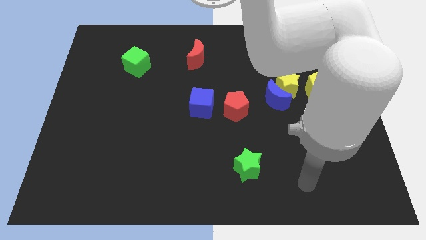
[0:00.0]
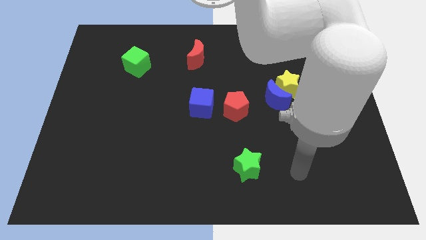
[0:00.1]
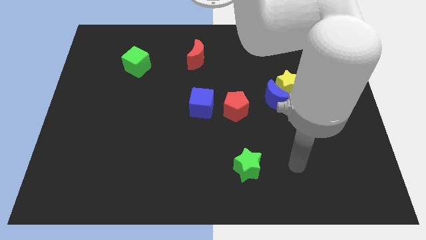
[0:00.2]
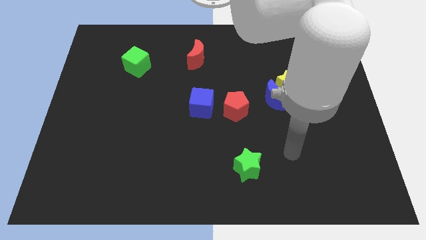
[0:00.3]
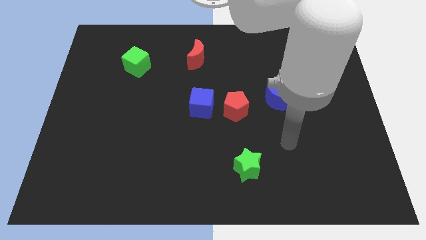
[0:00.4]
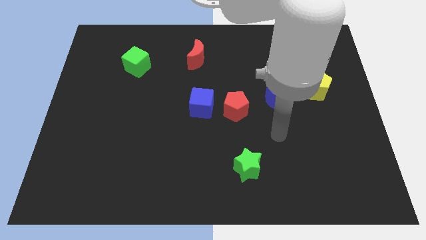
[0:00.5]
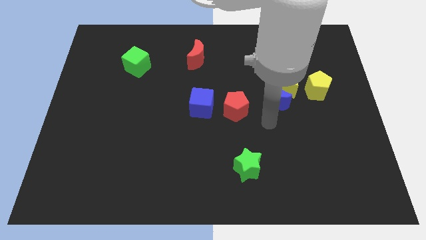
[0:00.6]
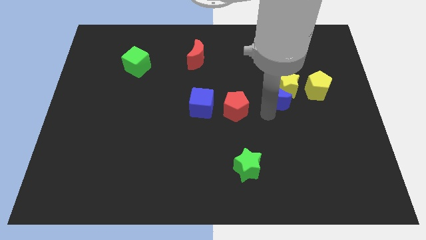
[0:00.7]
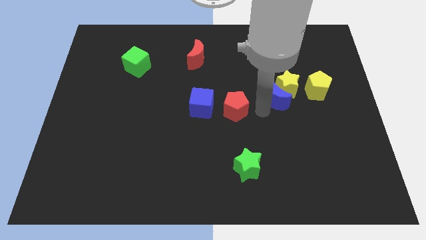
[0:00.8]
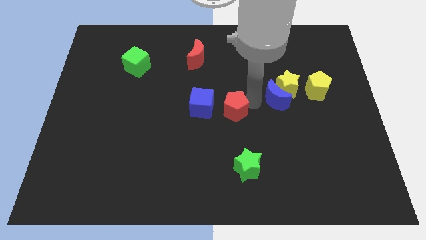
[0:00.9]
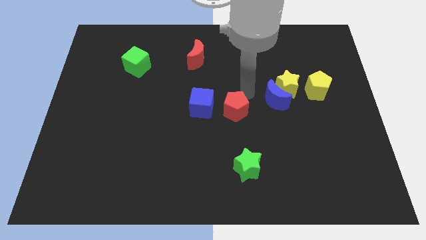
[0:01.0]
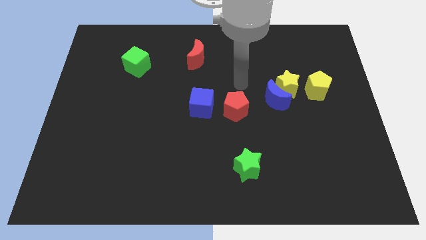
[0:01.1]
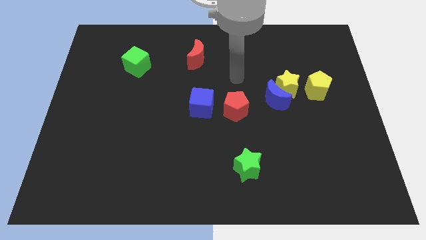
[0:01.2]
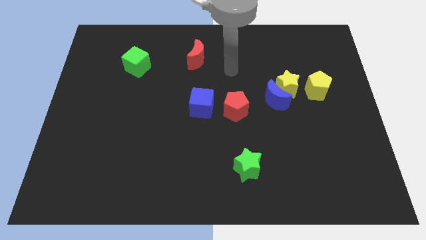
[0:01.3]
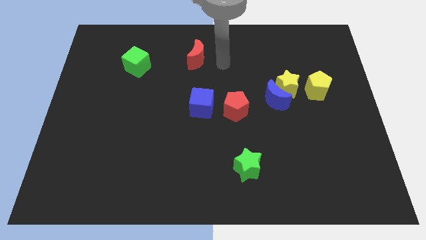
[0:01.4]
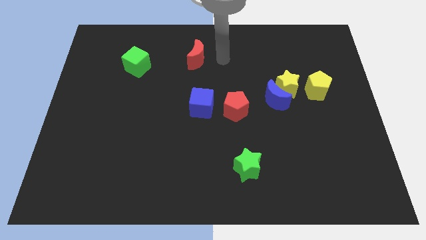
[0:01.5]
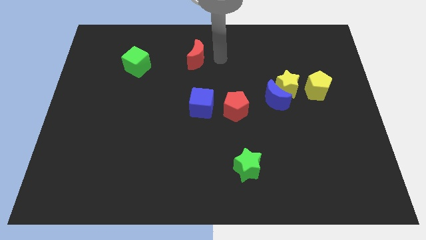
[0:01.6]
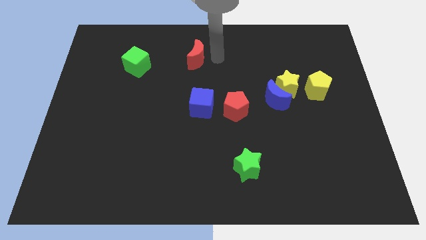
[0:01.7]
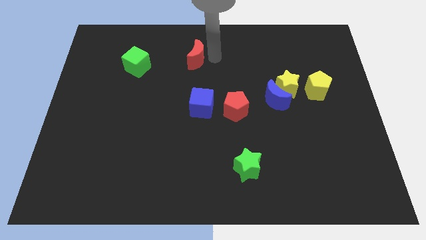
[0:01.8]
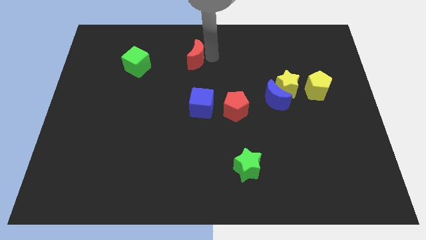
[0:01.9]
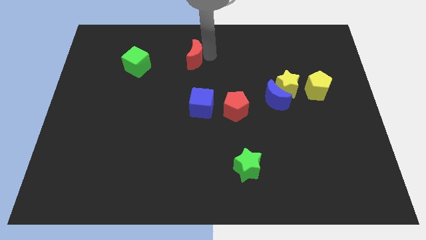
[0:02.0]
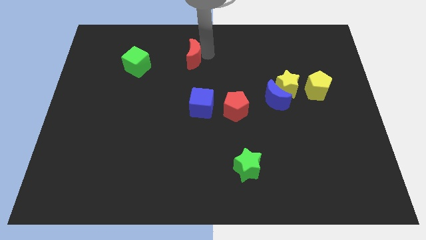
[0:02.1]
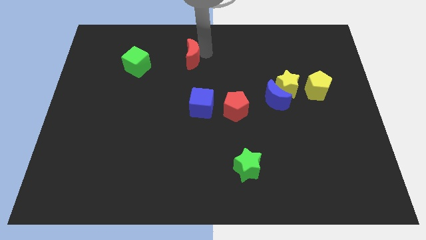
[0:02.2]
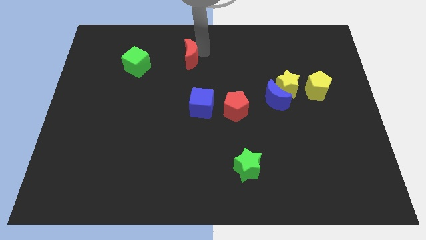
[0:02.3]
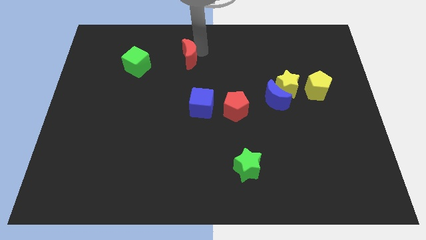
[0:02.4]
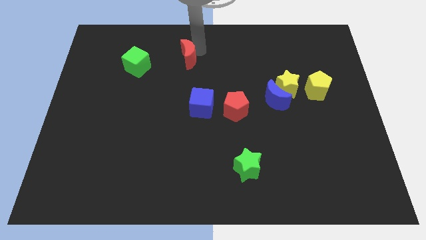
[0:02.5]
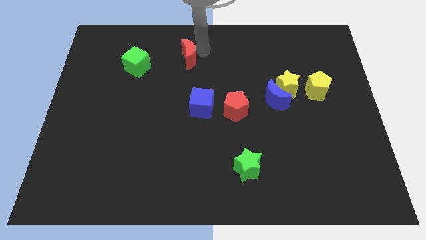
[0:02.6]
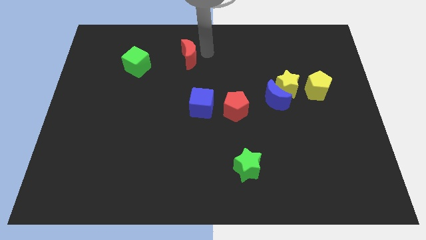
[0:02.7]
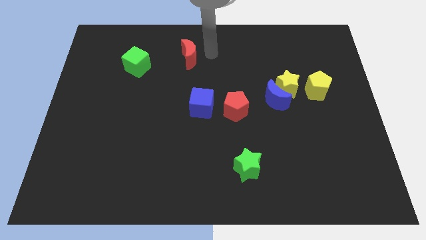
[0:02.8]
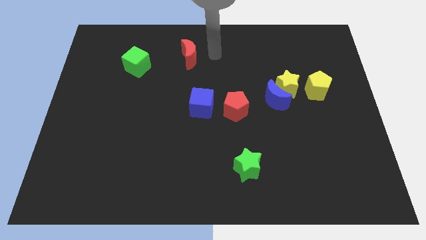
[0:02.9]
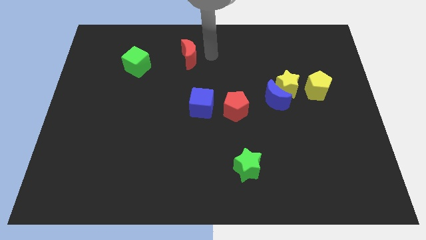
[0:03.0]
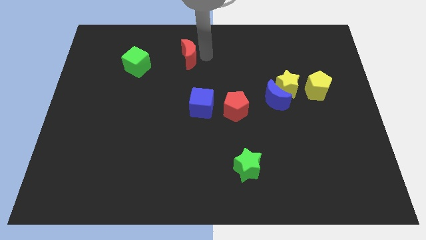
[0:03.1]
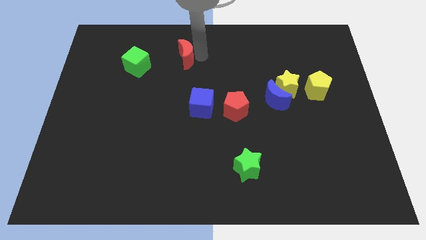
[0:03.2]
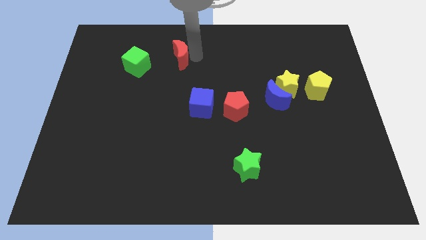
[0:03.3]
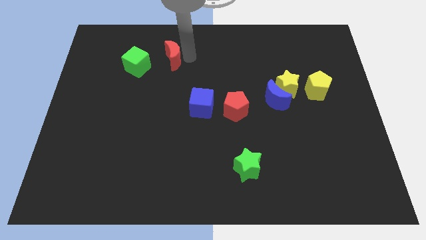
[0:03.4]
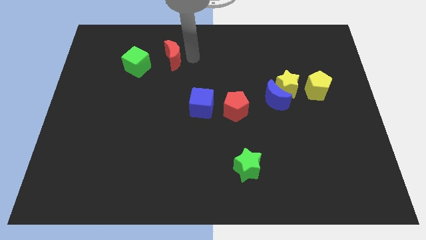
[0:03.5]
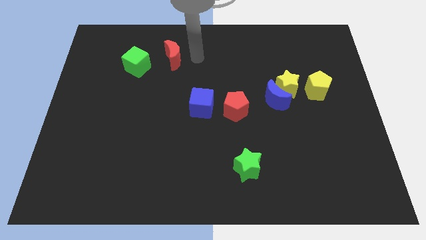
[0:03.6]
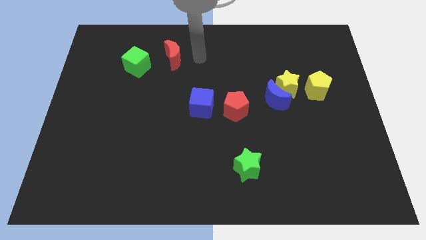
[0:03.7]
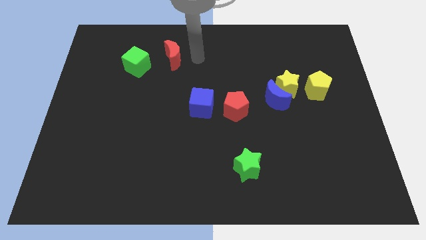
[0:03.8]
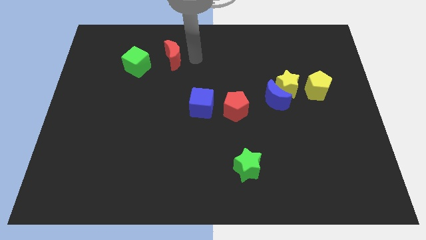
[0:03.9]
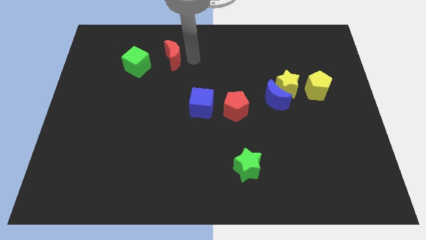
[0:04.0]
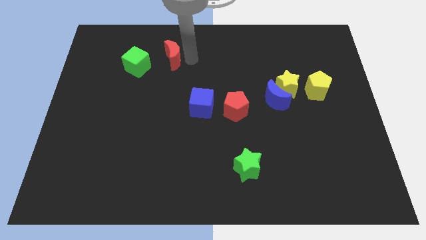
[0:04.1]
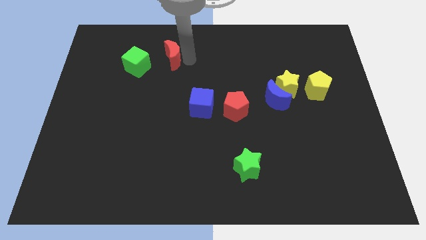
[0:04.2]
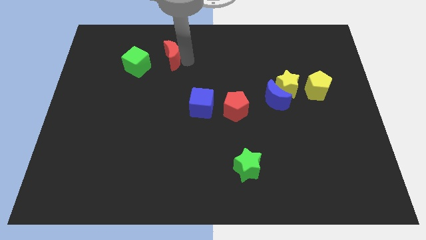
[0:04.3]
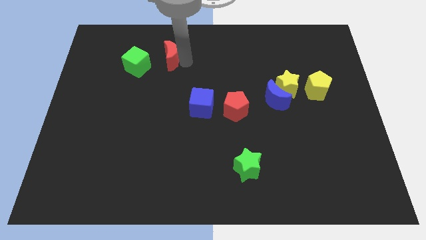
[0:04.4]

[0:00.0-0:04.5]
slightly push the red moon to the left

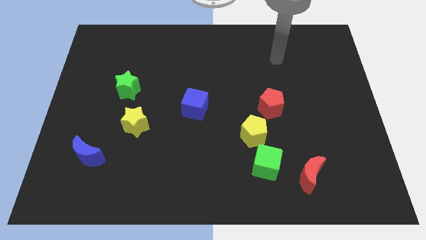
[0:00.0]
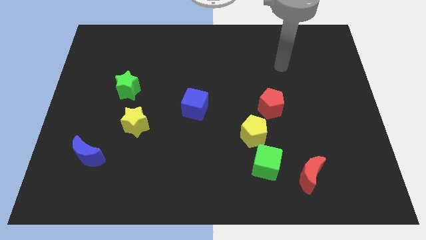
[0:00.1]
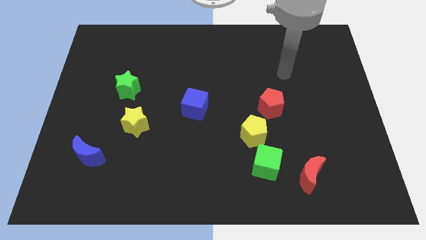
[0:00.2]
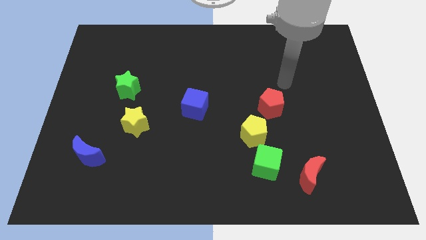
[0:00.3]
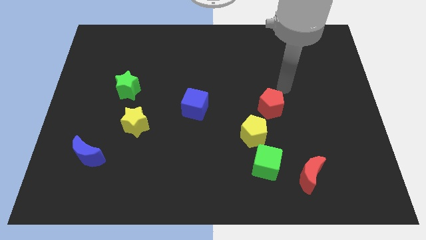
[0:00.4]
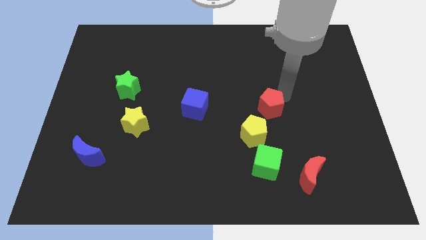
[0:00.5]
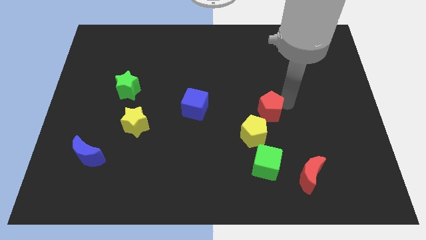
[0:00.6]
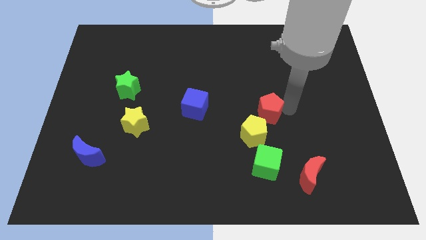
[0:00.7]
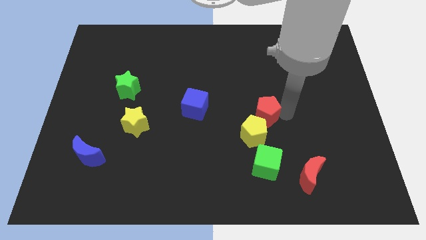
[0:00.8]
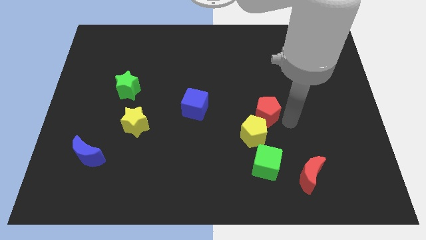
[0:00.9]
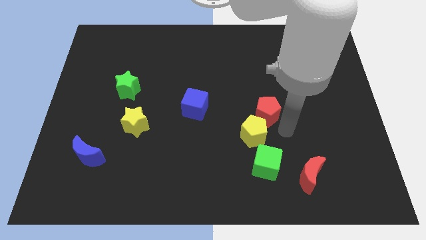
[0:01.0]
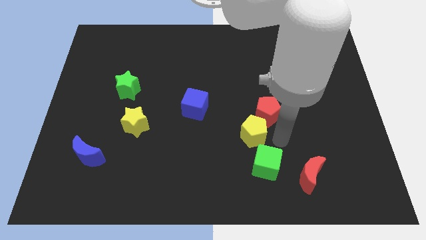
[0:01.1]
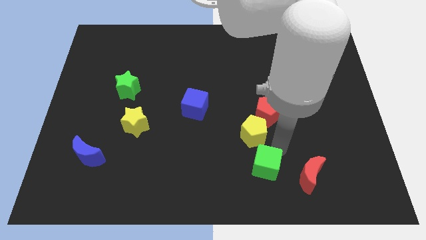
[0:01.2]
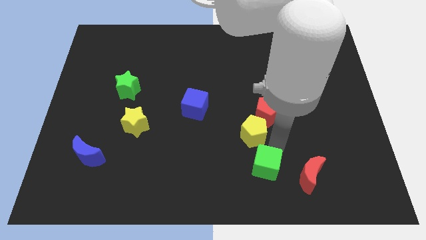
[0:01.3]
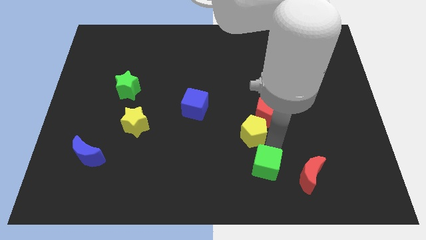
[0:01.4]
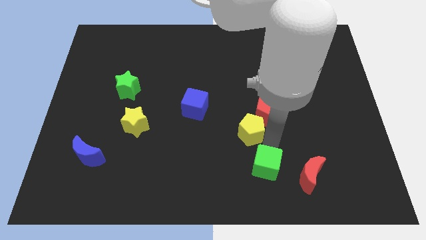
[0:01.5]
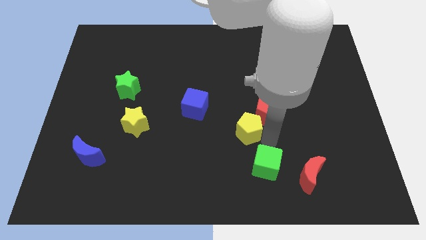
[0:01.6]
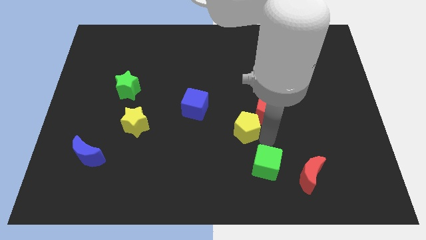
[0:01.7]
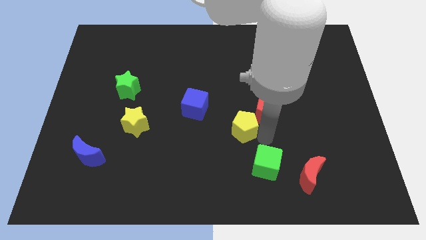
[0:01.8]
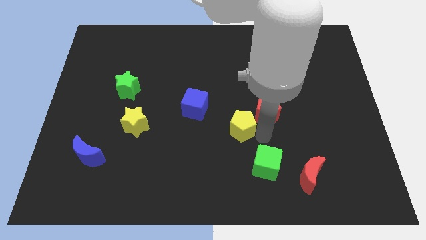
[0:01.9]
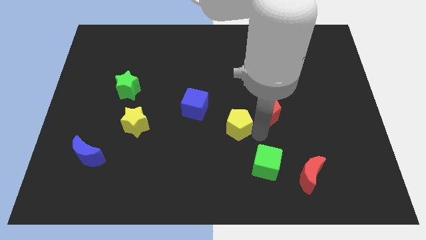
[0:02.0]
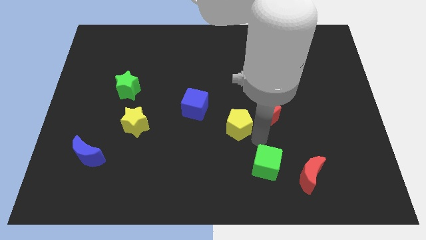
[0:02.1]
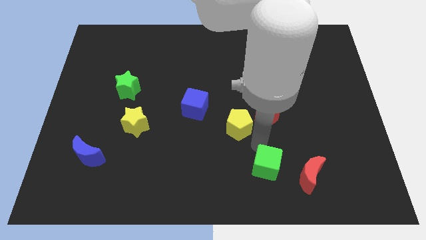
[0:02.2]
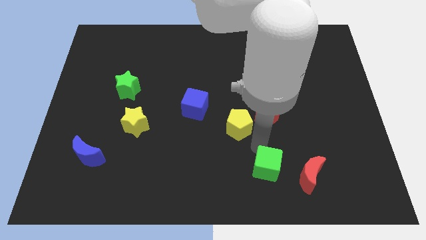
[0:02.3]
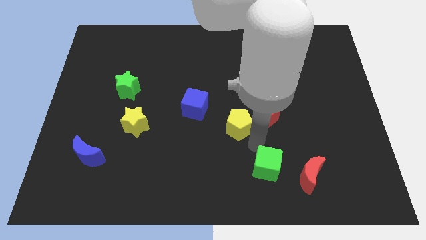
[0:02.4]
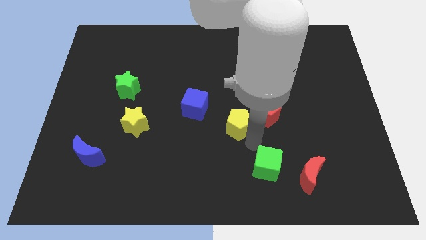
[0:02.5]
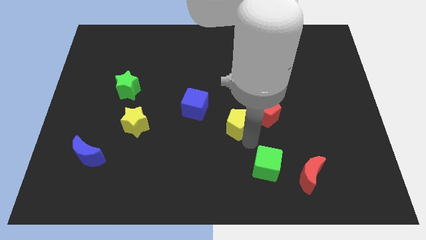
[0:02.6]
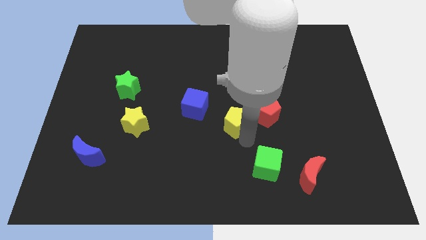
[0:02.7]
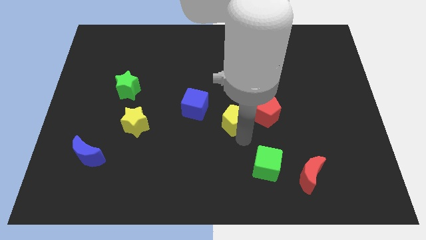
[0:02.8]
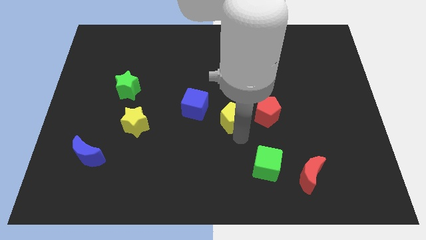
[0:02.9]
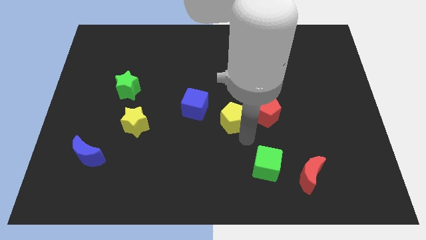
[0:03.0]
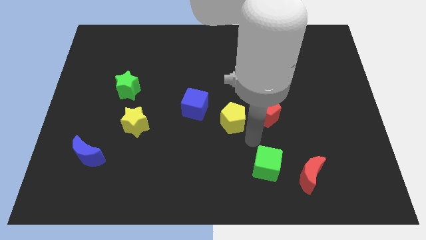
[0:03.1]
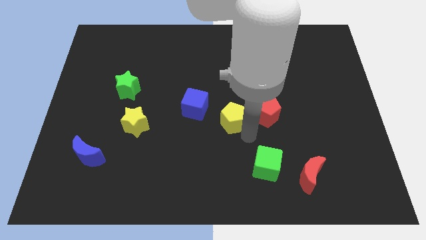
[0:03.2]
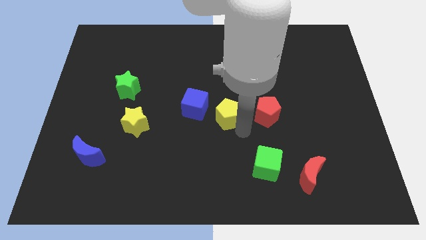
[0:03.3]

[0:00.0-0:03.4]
slightly slide the yellow pentagon upwards and then left

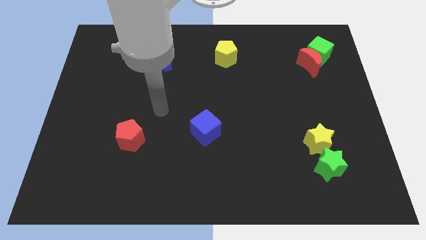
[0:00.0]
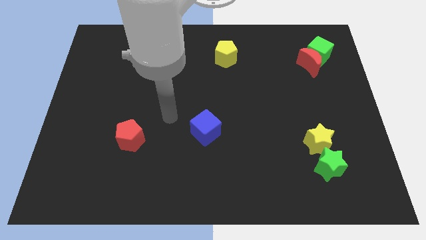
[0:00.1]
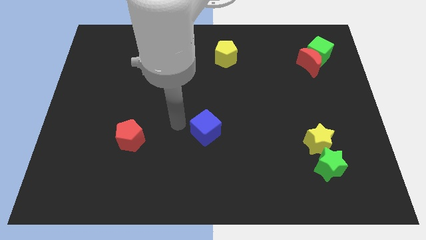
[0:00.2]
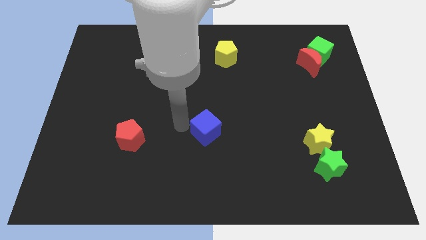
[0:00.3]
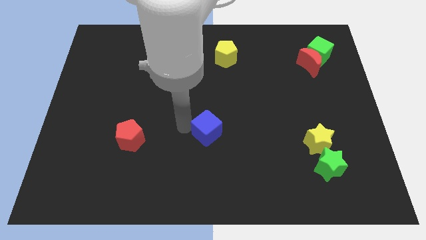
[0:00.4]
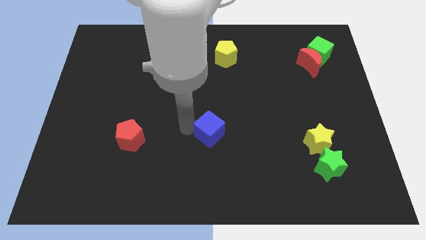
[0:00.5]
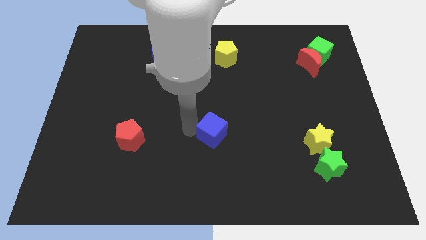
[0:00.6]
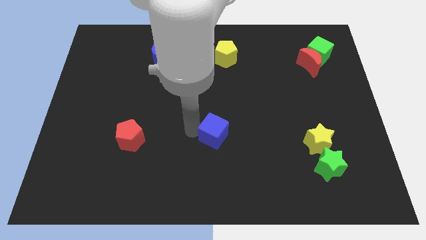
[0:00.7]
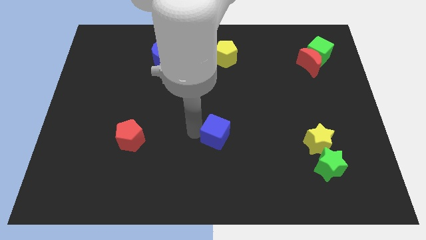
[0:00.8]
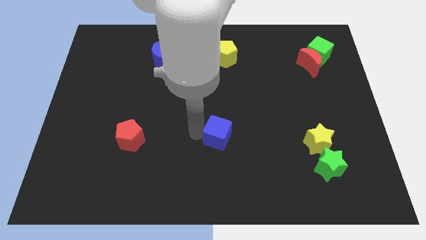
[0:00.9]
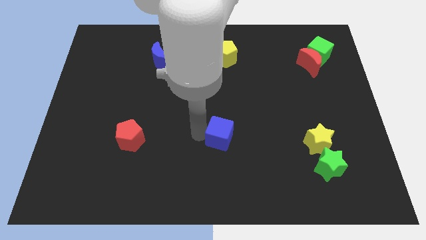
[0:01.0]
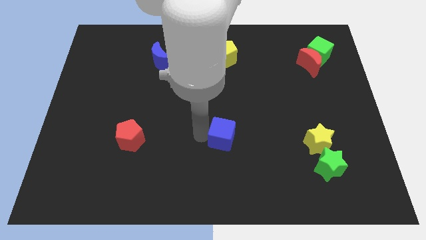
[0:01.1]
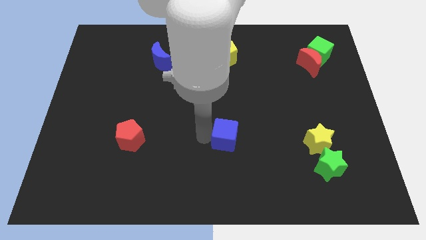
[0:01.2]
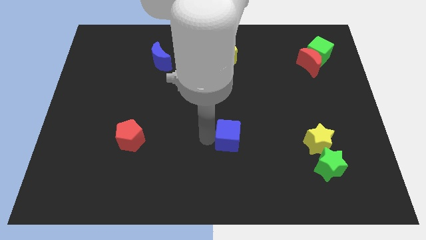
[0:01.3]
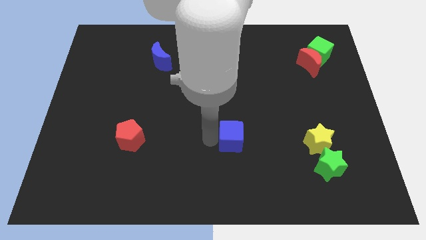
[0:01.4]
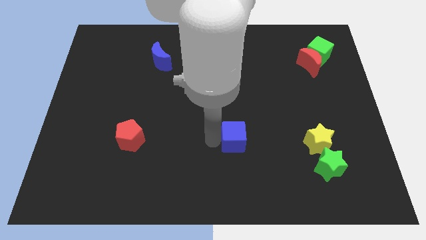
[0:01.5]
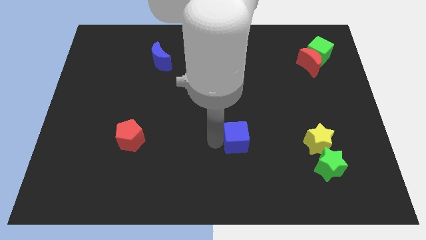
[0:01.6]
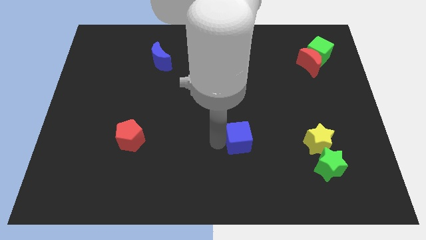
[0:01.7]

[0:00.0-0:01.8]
slide the blue cube to the right a little
